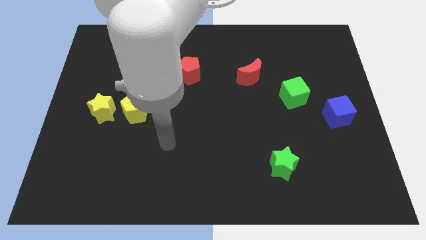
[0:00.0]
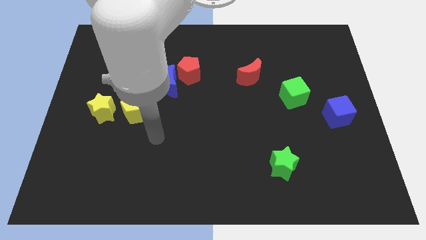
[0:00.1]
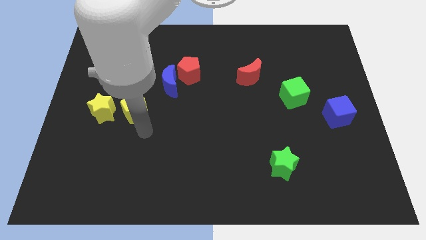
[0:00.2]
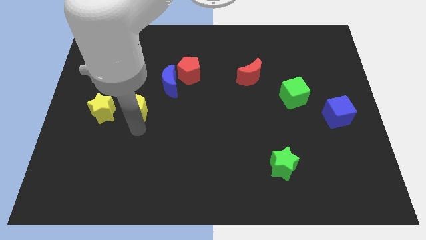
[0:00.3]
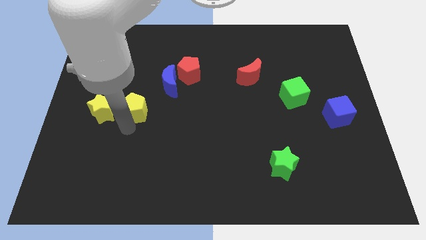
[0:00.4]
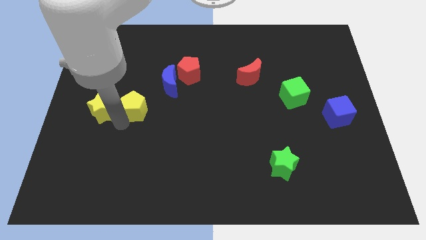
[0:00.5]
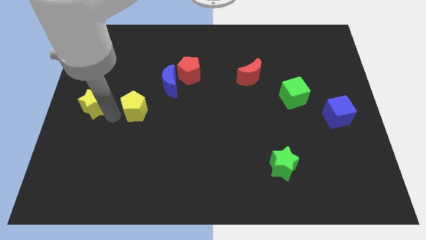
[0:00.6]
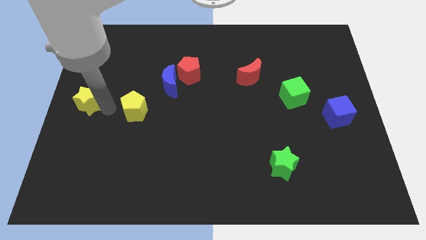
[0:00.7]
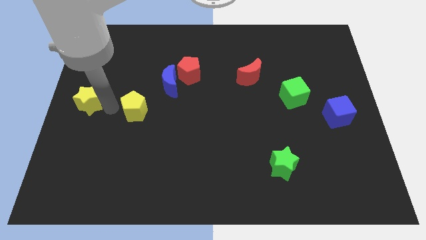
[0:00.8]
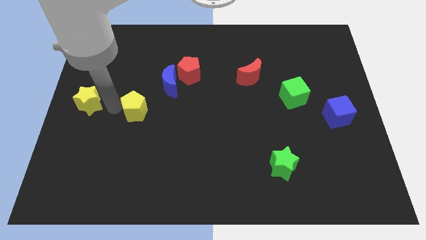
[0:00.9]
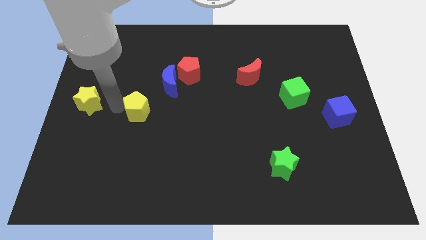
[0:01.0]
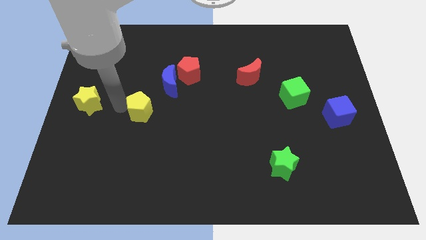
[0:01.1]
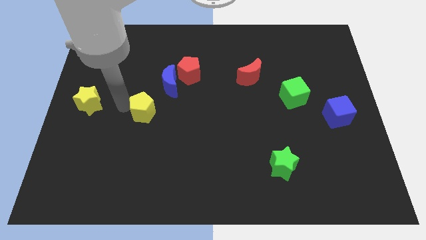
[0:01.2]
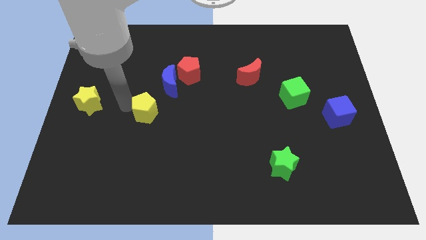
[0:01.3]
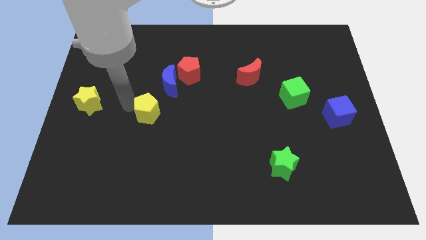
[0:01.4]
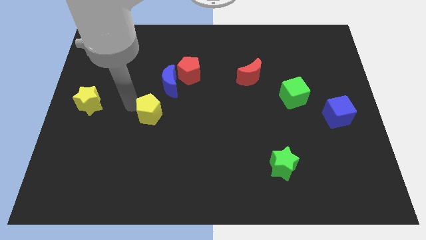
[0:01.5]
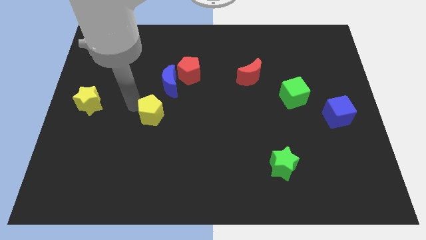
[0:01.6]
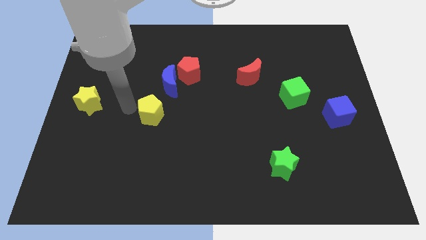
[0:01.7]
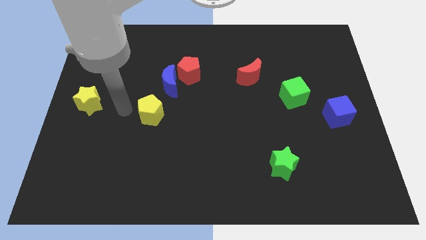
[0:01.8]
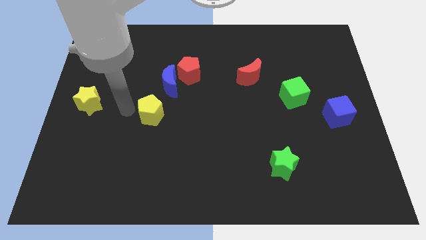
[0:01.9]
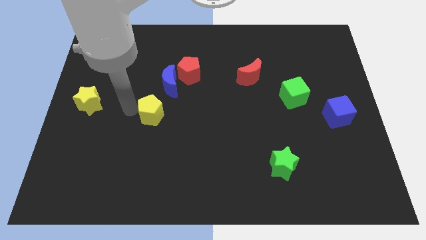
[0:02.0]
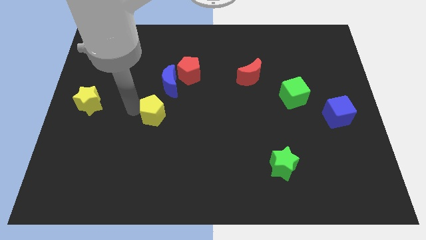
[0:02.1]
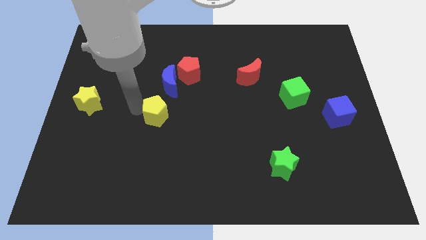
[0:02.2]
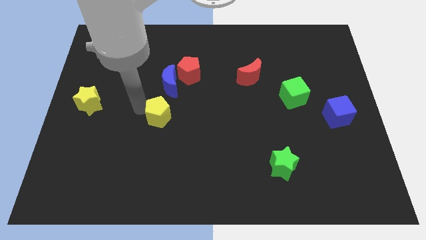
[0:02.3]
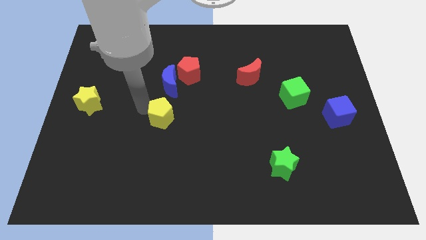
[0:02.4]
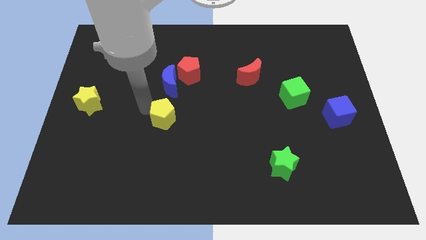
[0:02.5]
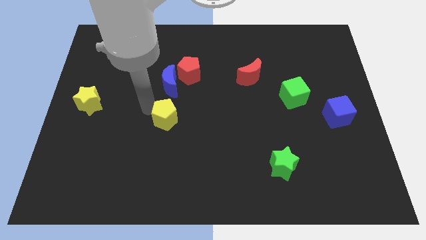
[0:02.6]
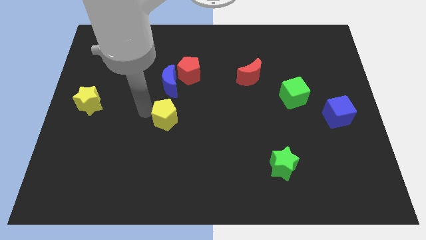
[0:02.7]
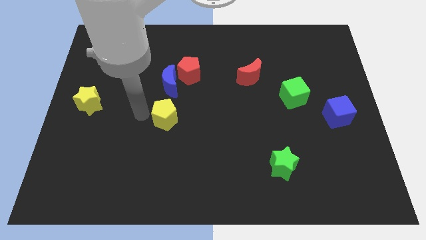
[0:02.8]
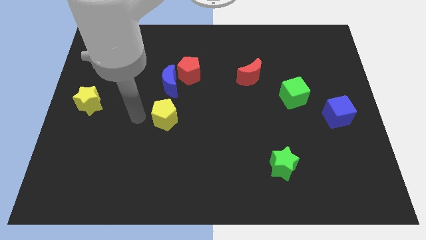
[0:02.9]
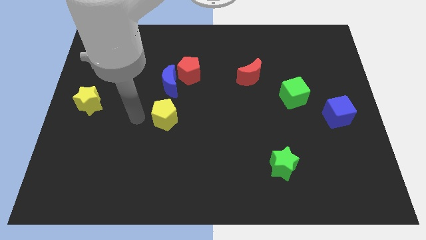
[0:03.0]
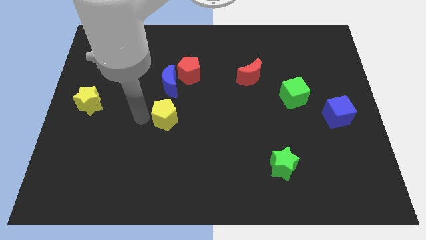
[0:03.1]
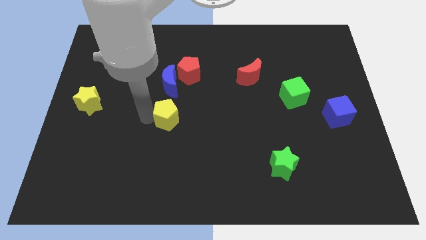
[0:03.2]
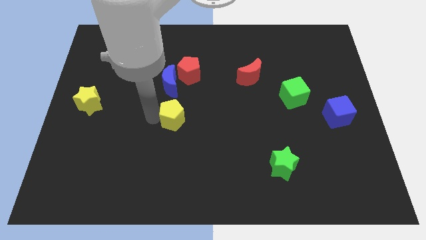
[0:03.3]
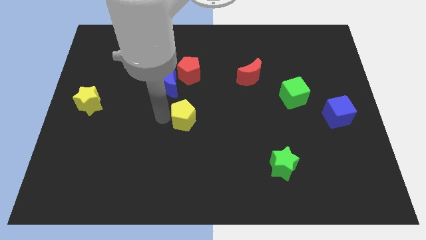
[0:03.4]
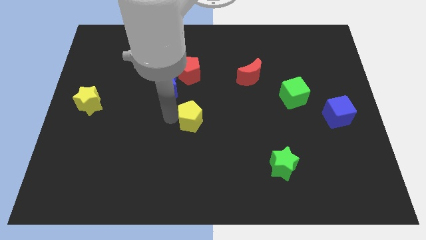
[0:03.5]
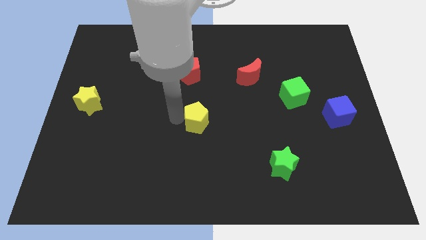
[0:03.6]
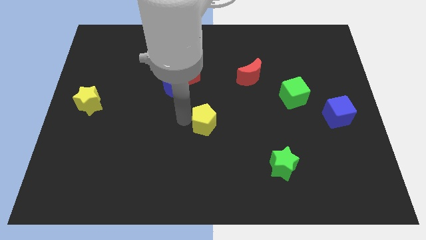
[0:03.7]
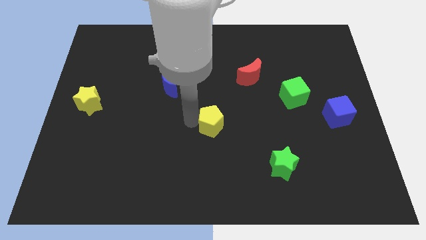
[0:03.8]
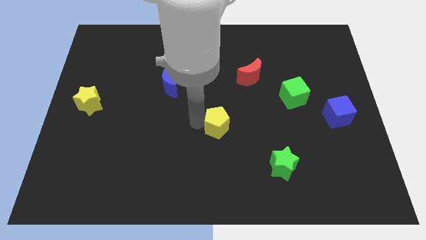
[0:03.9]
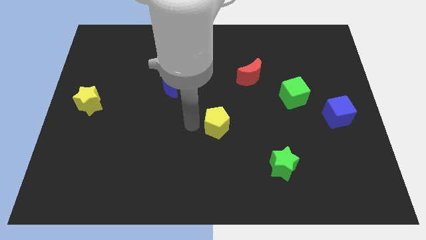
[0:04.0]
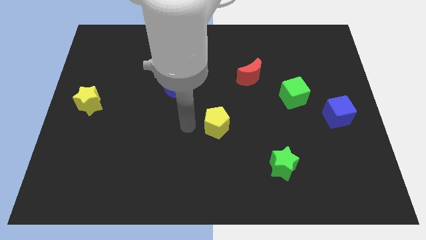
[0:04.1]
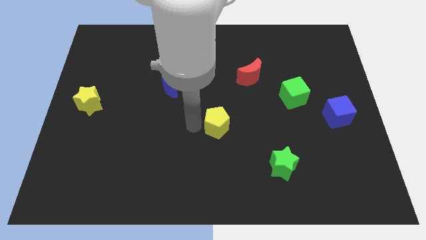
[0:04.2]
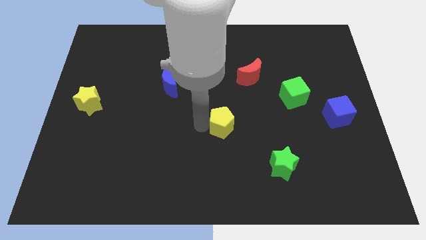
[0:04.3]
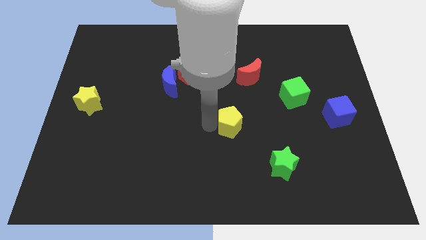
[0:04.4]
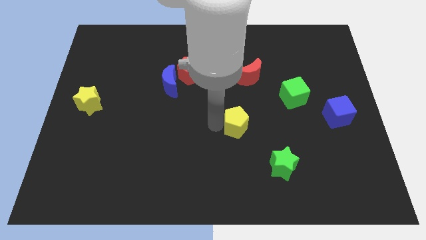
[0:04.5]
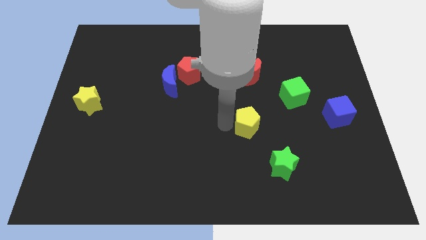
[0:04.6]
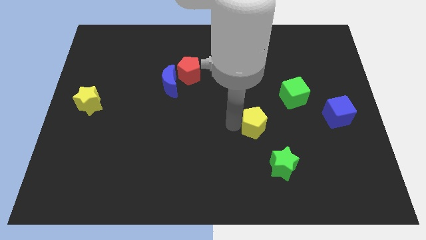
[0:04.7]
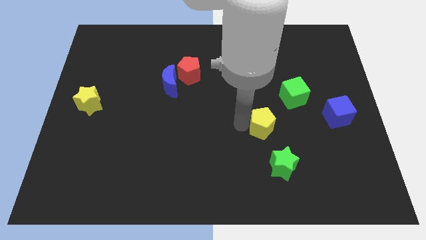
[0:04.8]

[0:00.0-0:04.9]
put the yellow pentagon to the top of the green star

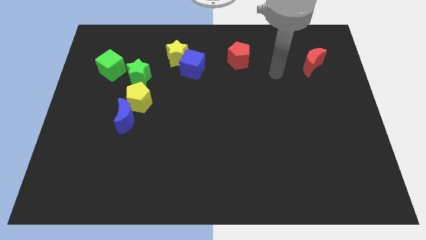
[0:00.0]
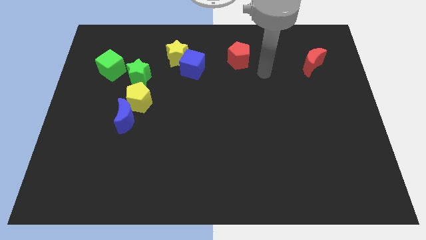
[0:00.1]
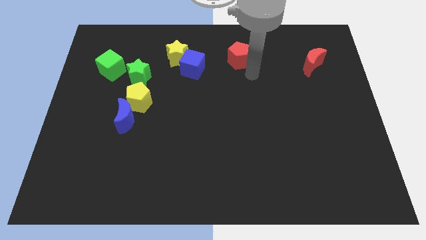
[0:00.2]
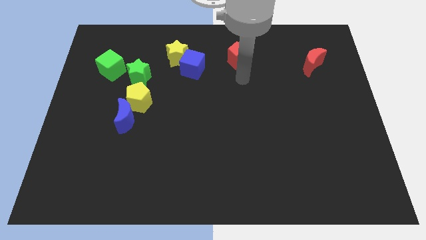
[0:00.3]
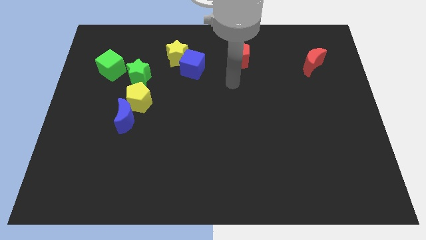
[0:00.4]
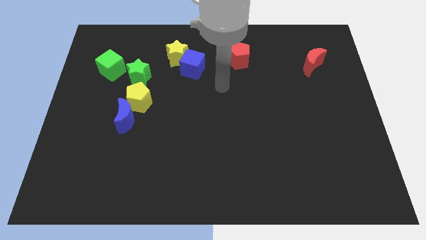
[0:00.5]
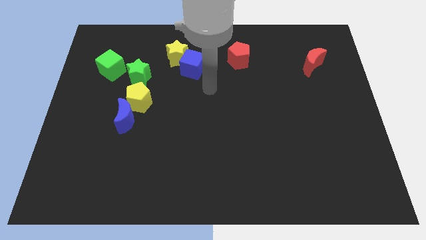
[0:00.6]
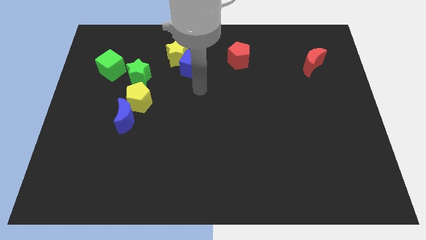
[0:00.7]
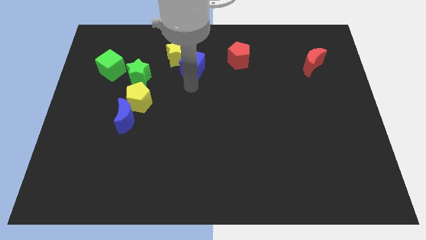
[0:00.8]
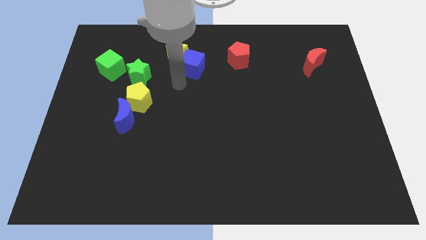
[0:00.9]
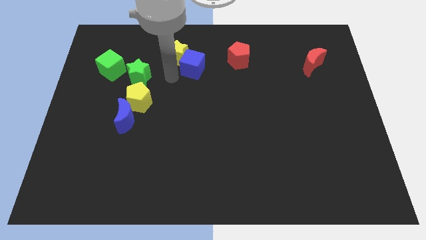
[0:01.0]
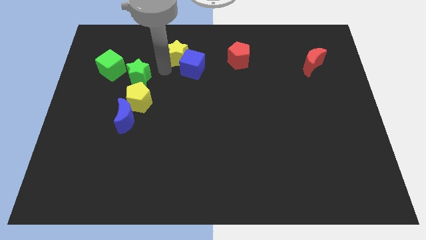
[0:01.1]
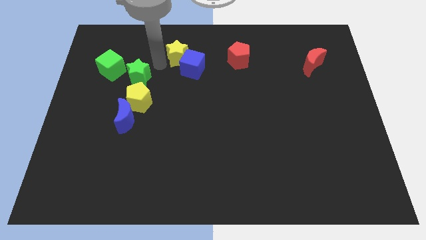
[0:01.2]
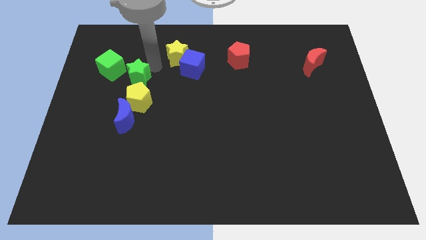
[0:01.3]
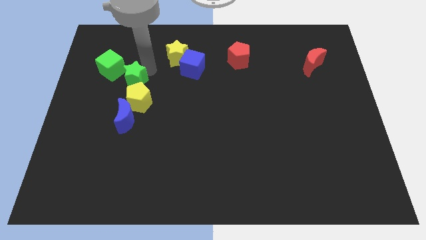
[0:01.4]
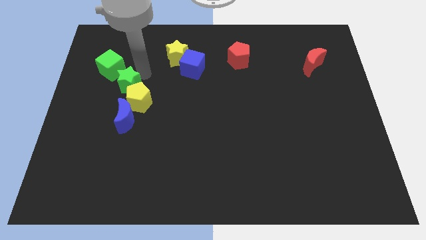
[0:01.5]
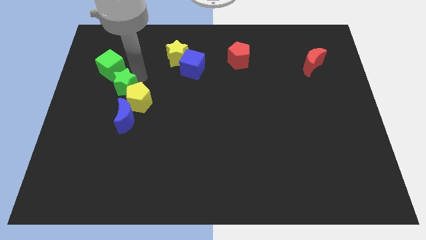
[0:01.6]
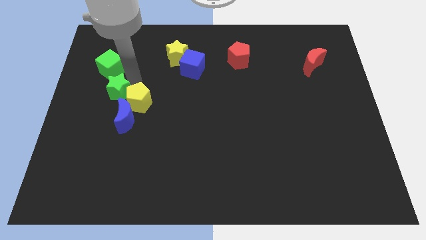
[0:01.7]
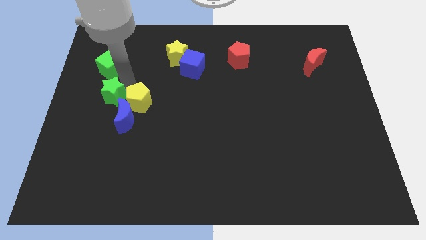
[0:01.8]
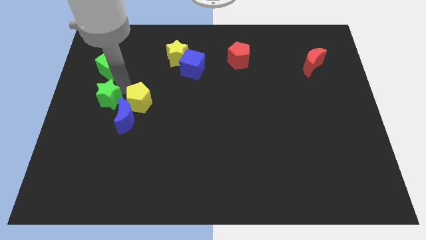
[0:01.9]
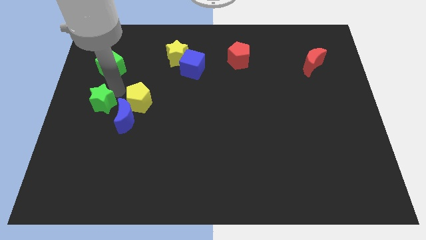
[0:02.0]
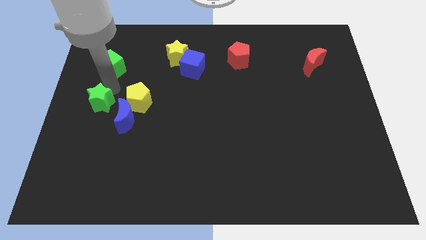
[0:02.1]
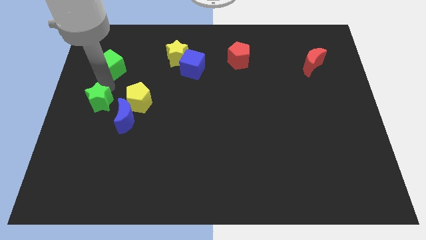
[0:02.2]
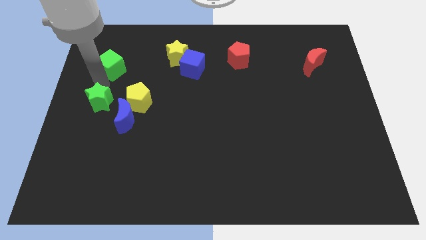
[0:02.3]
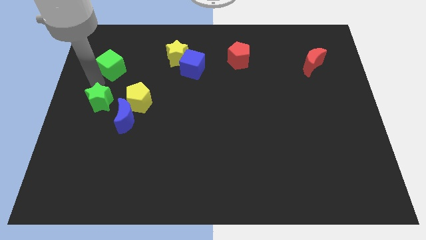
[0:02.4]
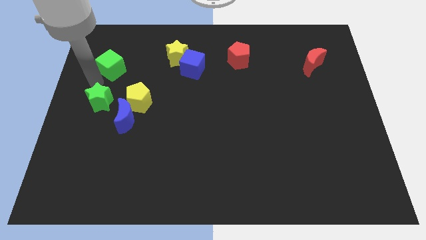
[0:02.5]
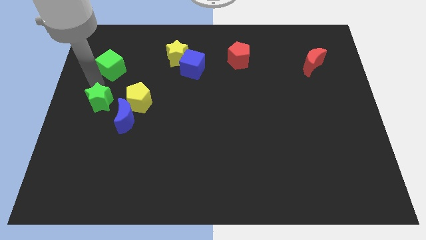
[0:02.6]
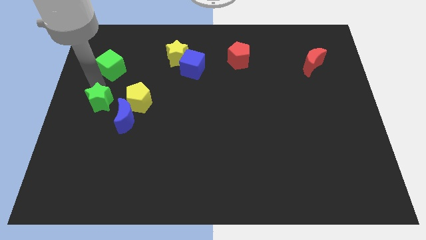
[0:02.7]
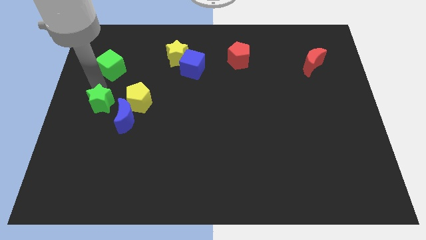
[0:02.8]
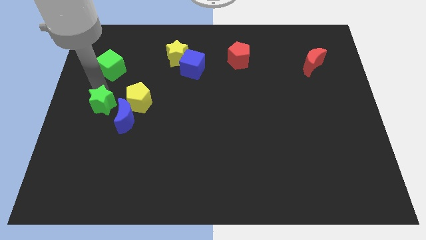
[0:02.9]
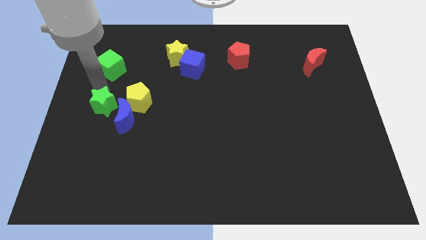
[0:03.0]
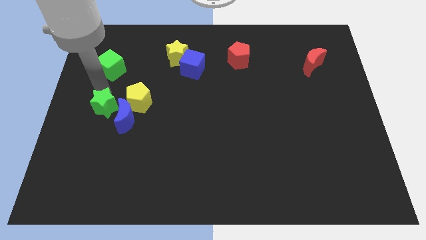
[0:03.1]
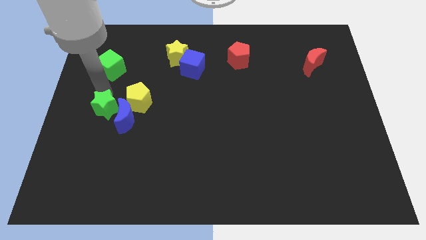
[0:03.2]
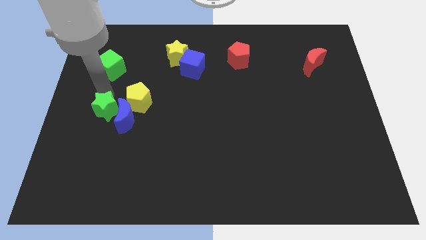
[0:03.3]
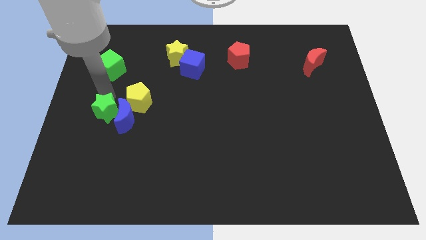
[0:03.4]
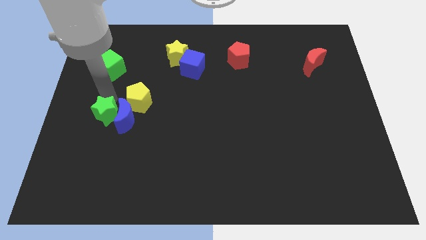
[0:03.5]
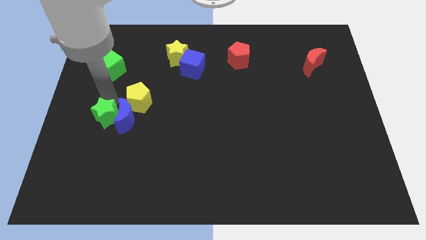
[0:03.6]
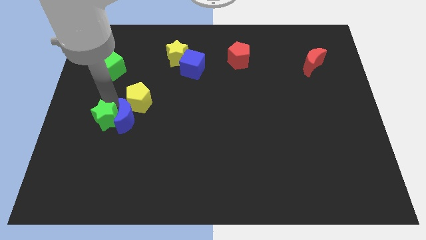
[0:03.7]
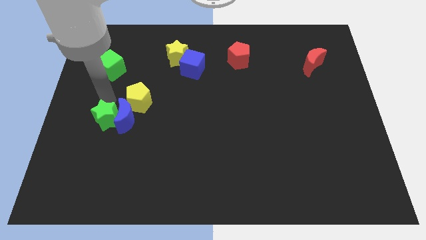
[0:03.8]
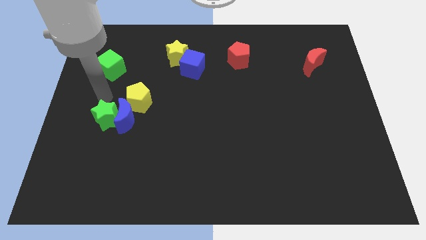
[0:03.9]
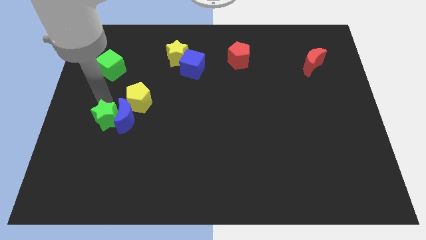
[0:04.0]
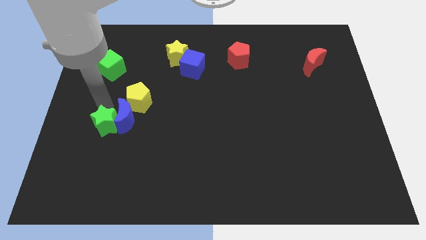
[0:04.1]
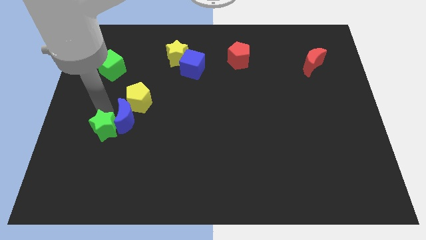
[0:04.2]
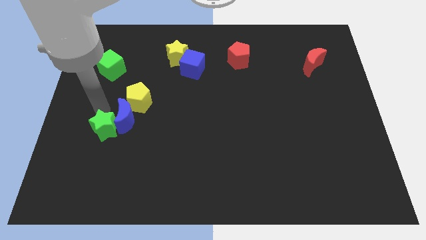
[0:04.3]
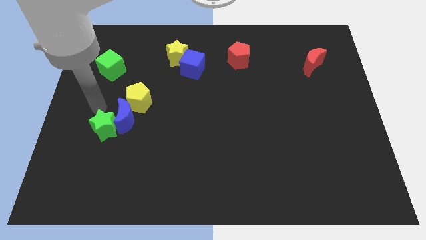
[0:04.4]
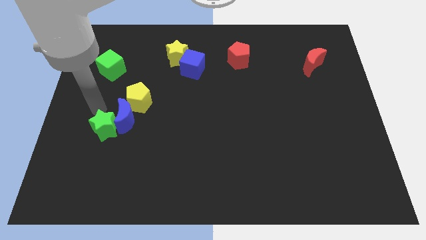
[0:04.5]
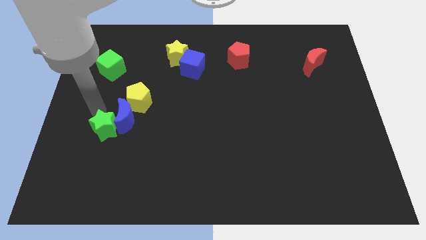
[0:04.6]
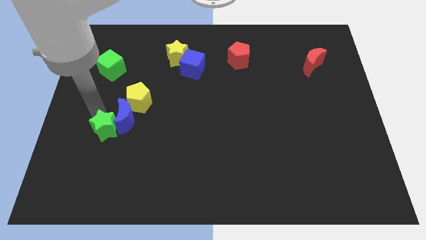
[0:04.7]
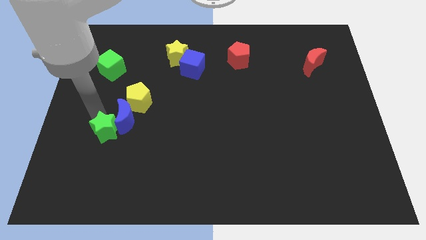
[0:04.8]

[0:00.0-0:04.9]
put the green star to the bottom side of the blue moon
